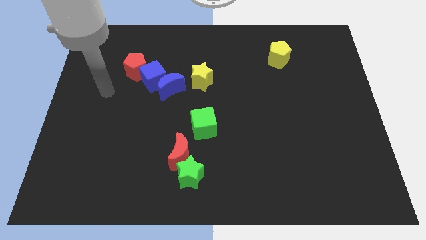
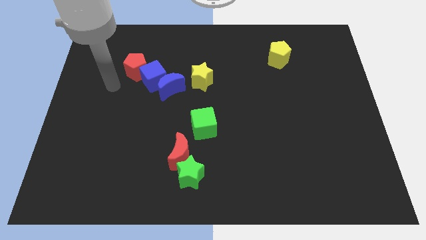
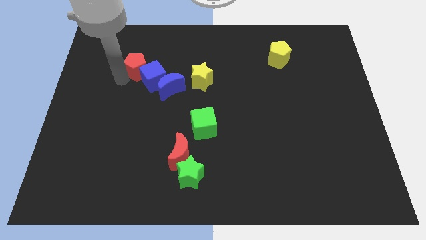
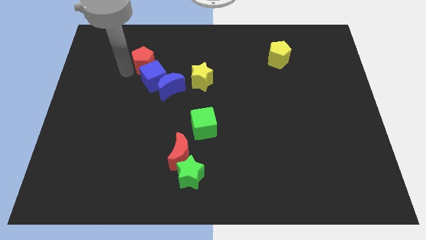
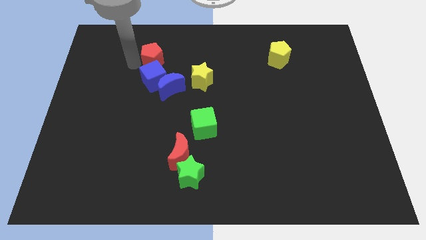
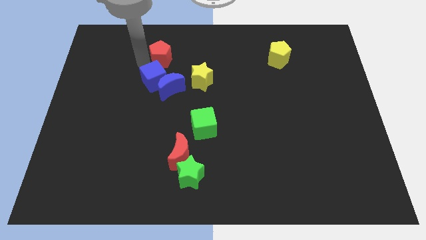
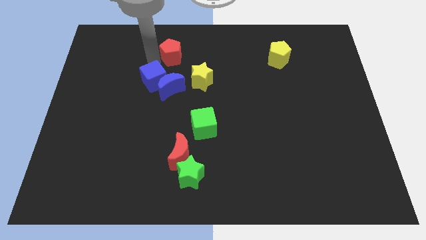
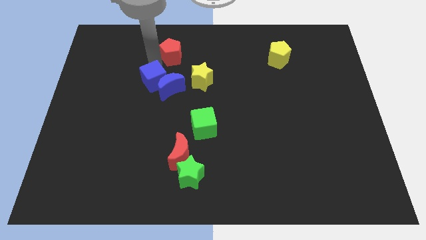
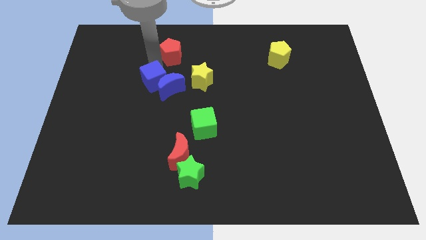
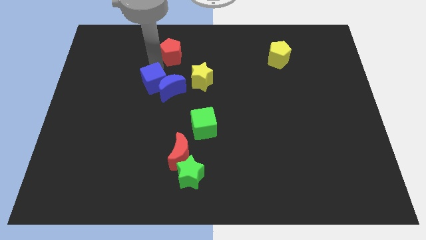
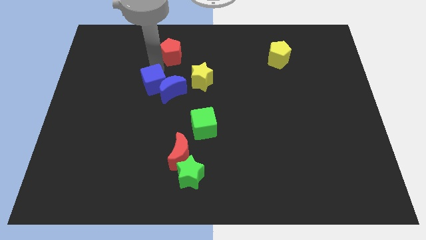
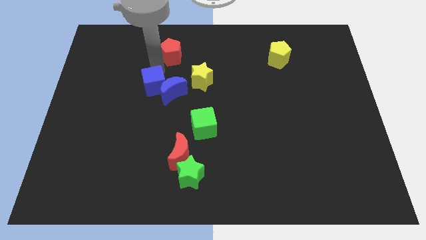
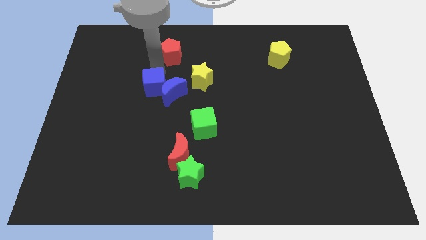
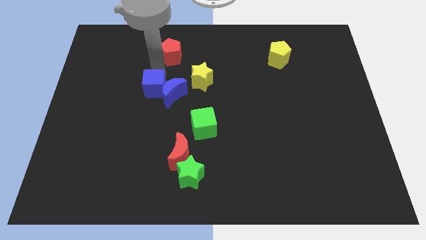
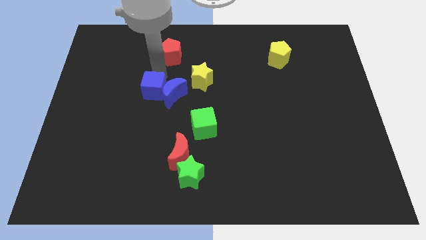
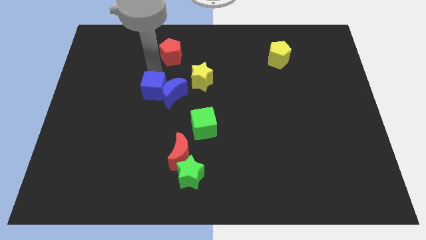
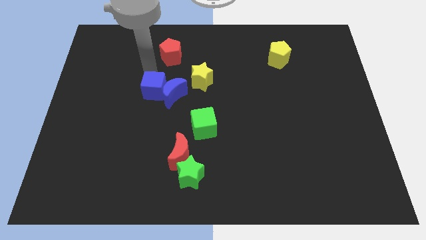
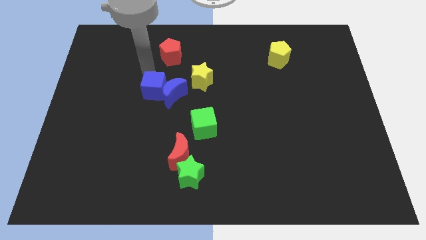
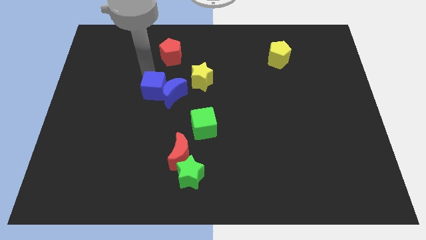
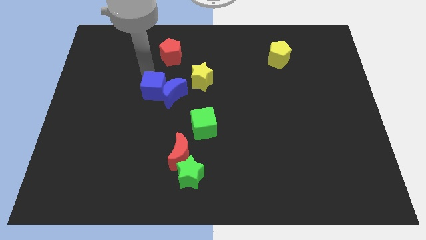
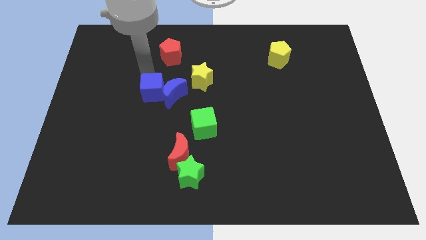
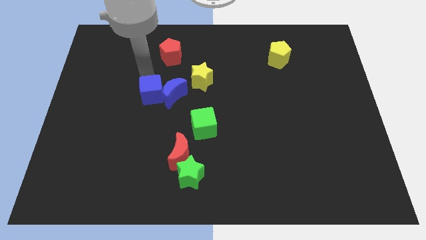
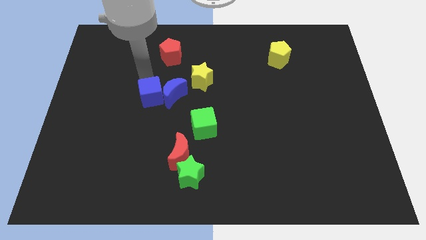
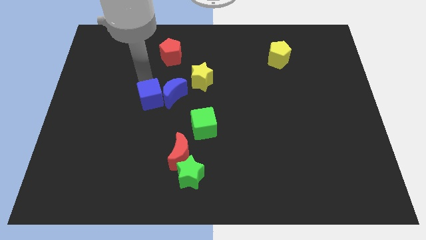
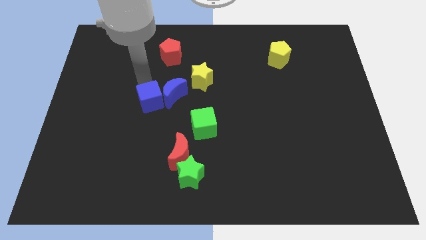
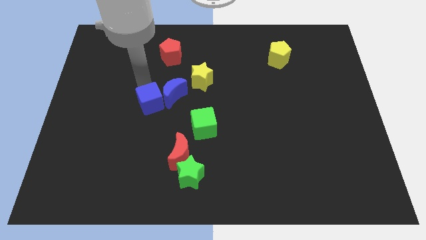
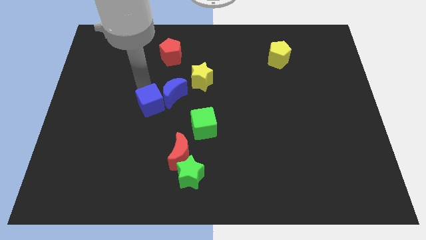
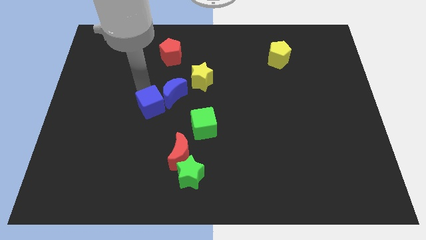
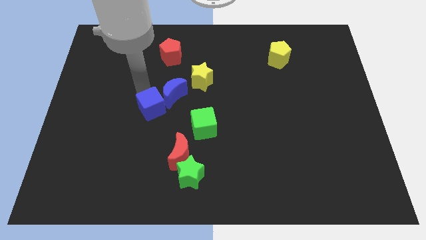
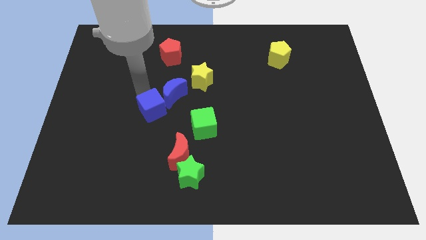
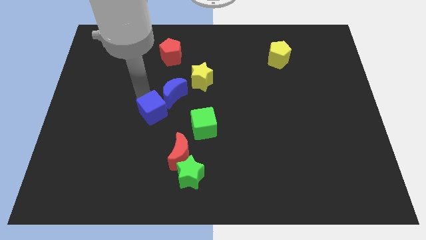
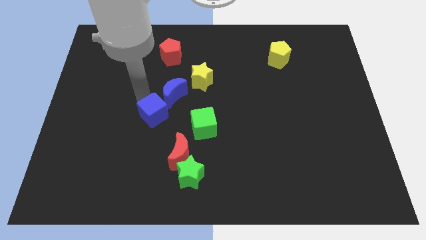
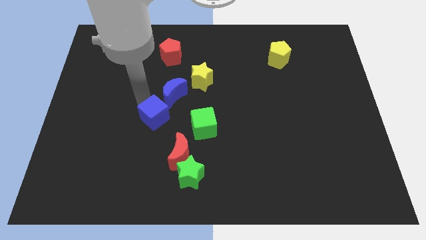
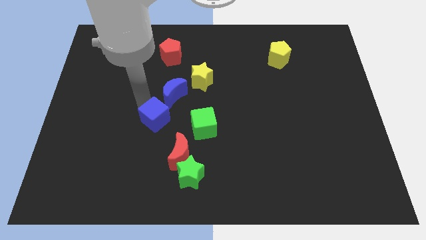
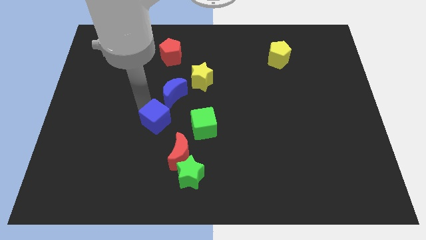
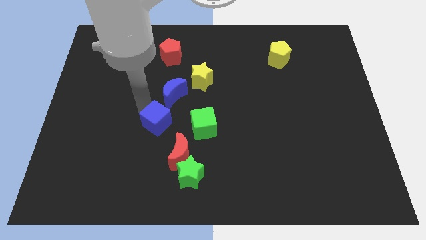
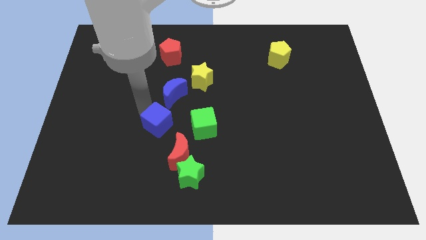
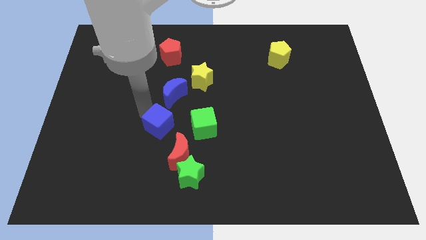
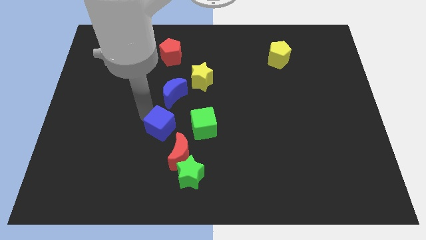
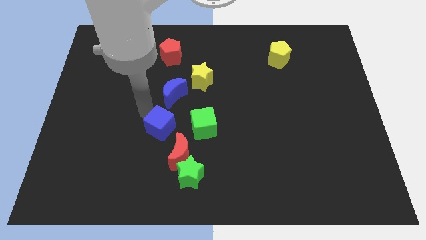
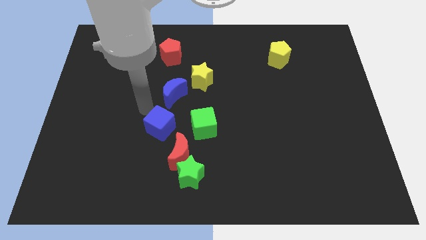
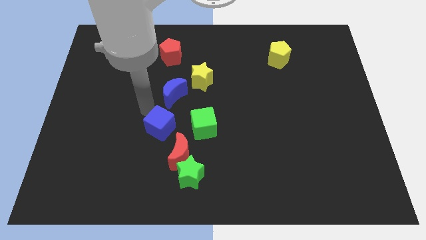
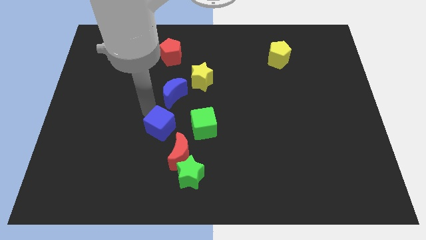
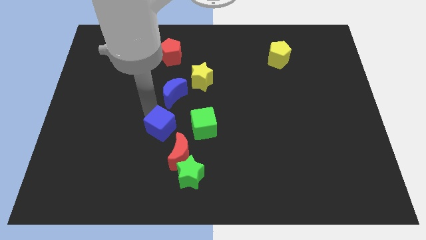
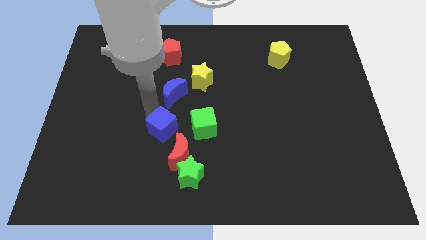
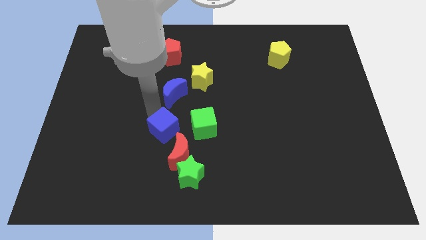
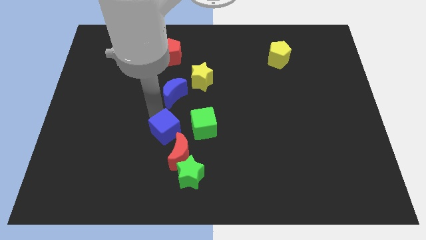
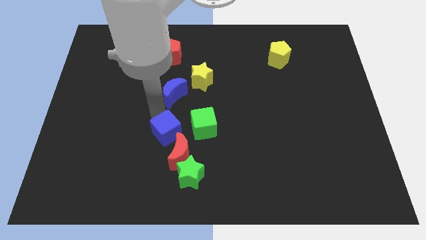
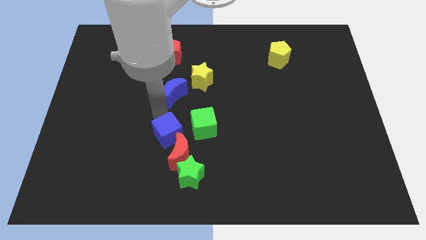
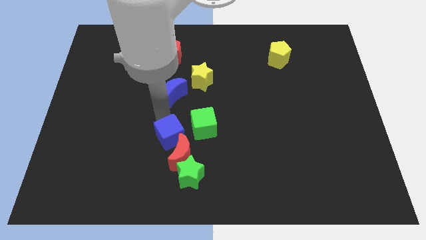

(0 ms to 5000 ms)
move the blue cube to the red moon

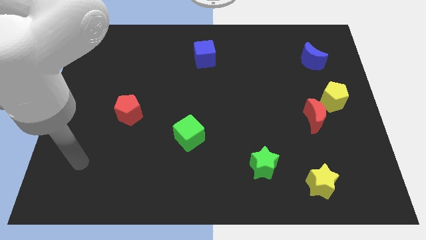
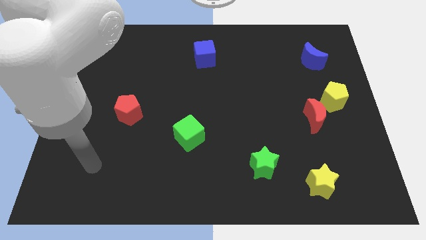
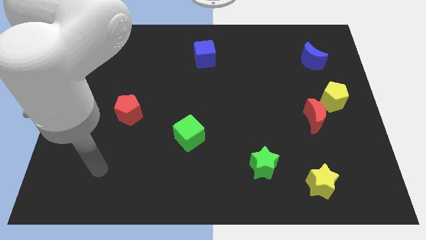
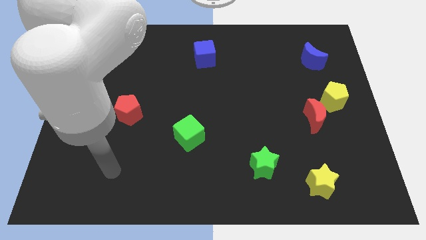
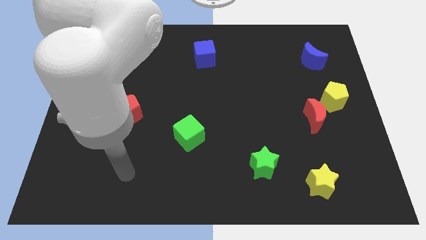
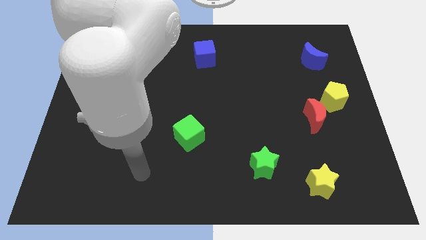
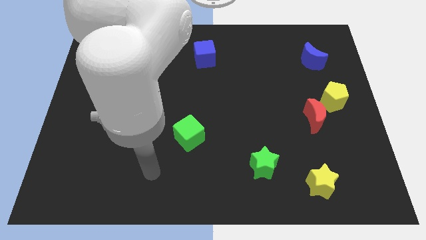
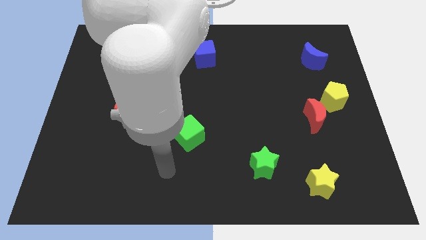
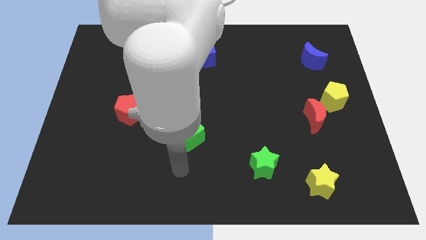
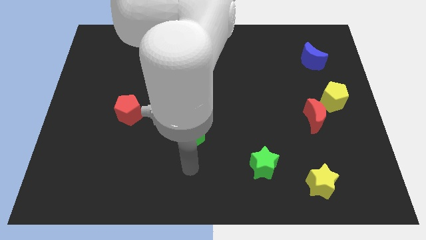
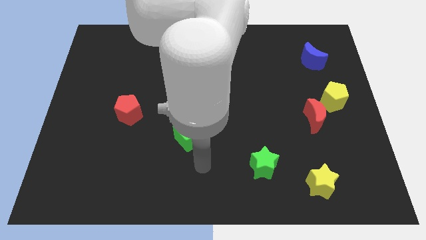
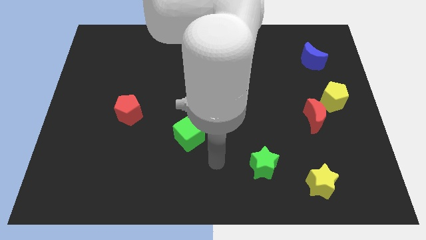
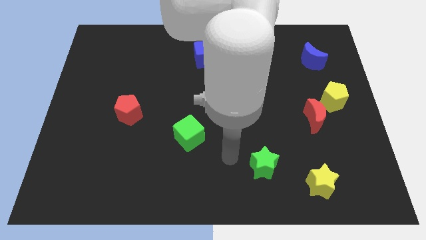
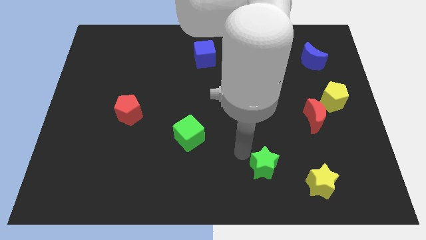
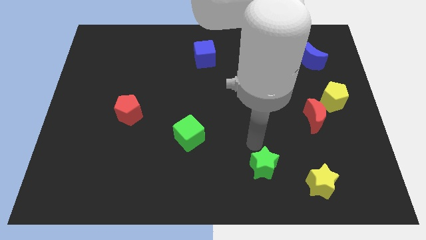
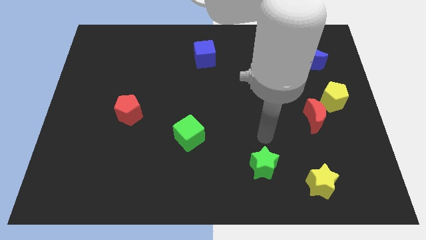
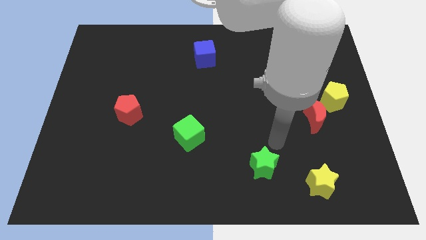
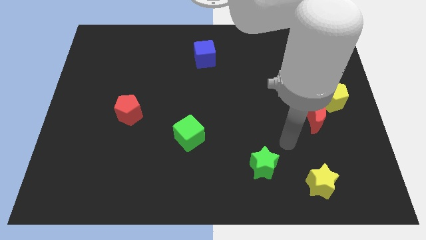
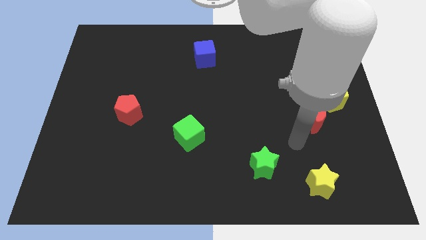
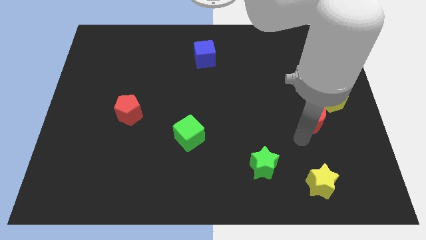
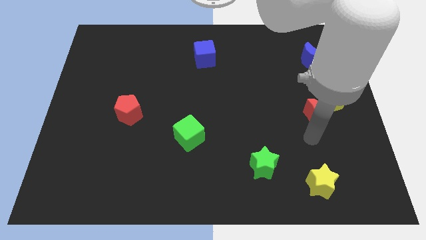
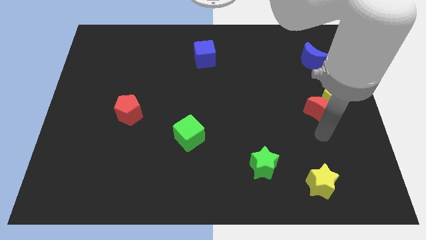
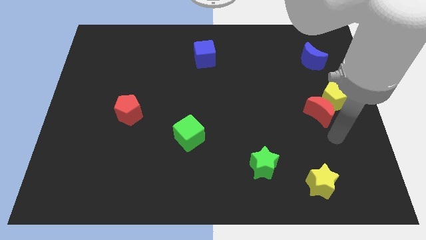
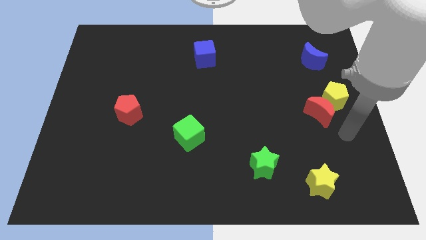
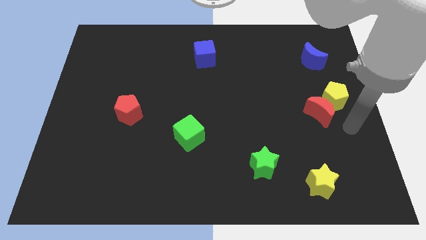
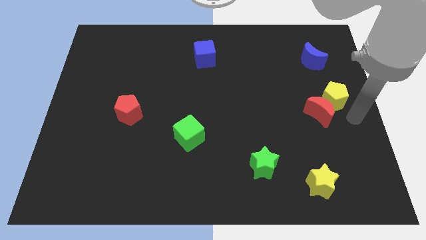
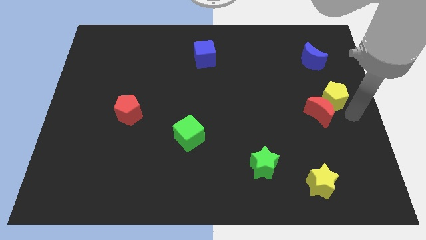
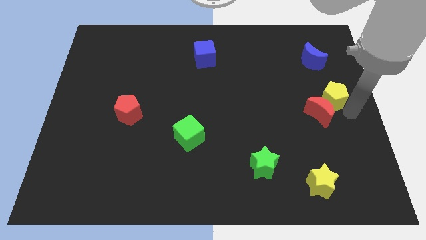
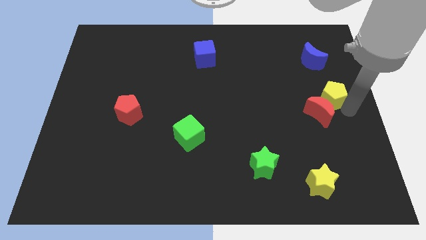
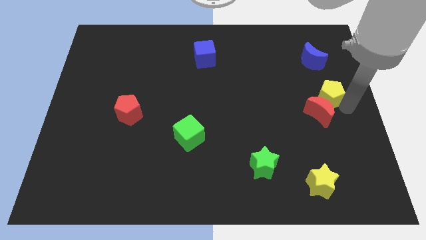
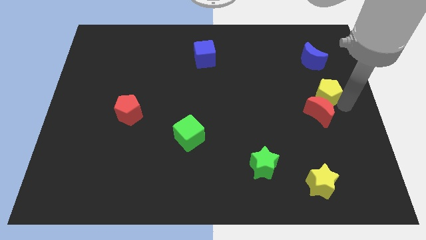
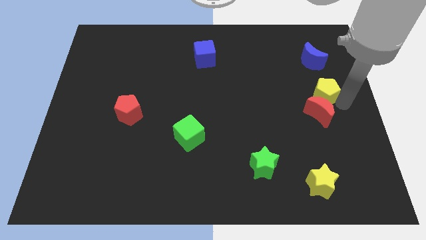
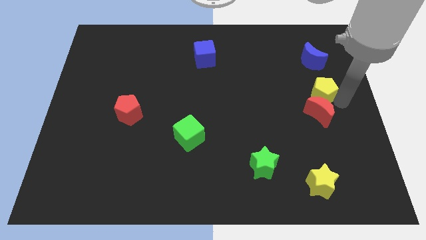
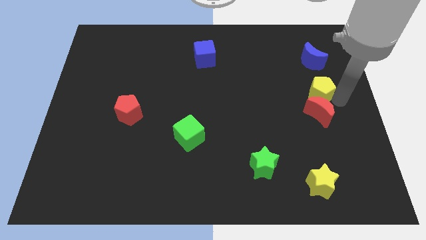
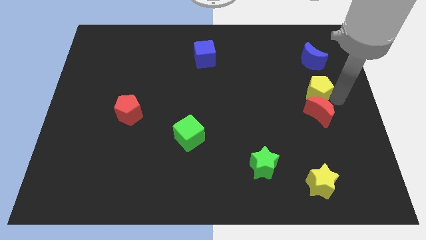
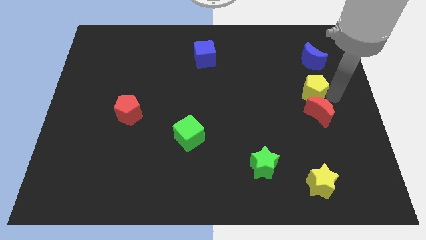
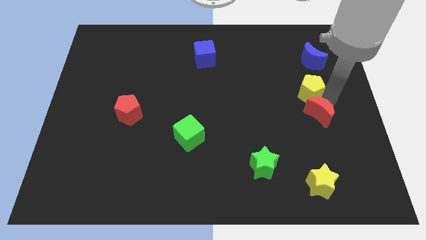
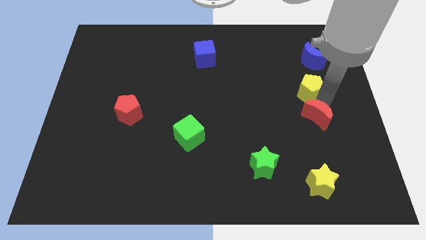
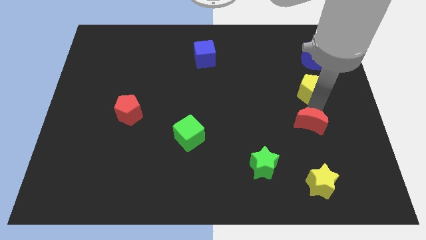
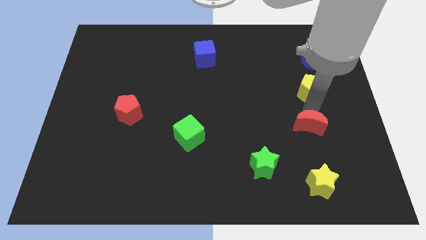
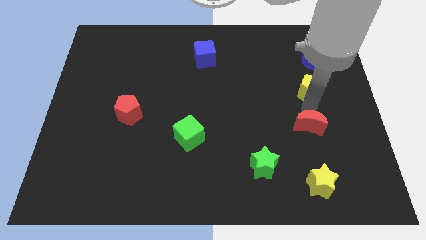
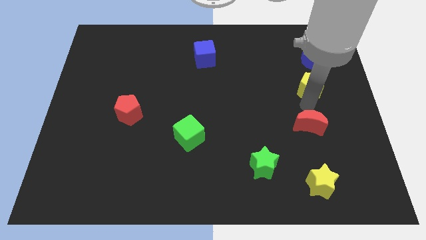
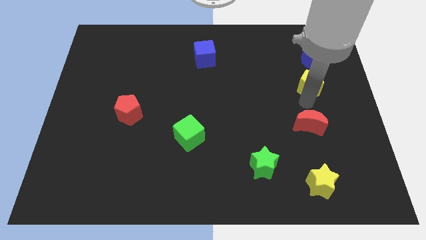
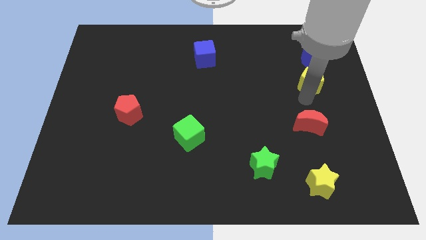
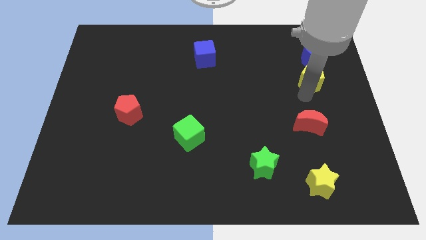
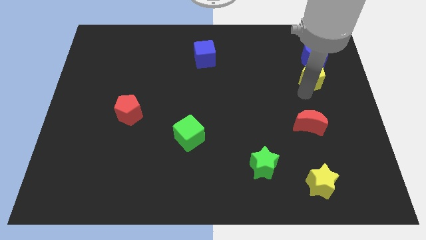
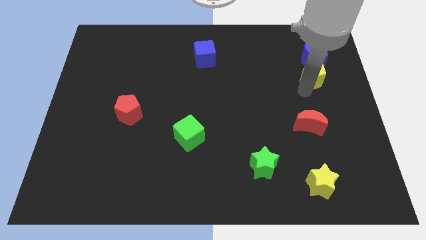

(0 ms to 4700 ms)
slide the yellow pentagon next to the blue moon
